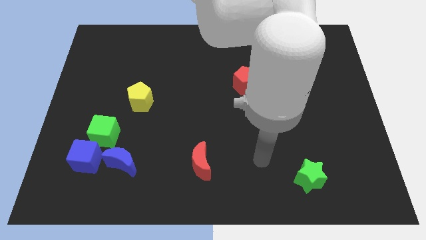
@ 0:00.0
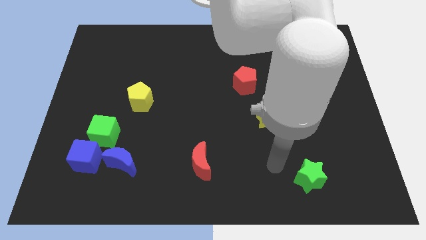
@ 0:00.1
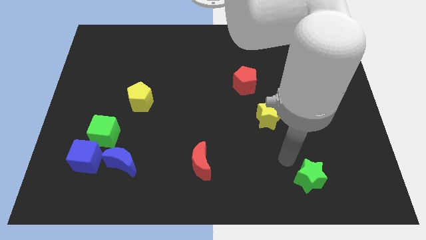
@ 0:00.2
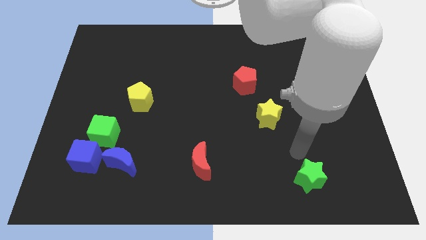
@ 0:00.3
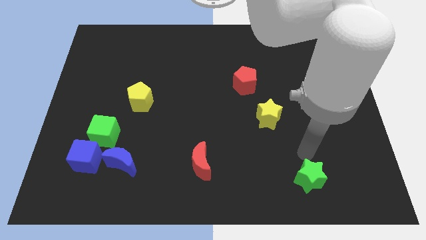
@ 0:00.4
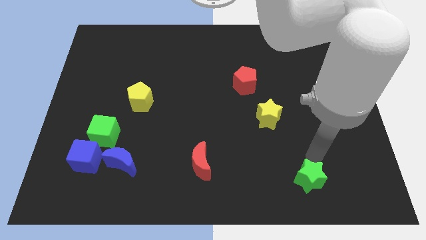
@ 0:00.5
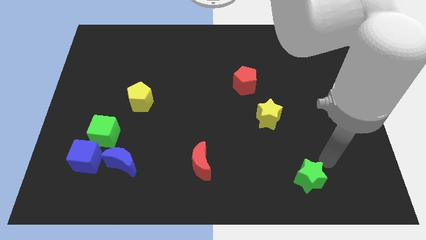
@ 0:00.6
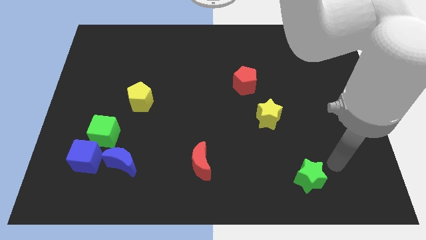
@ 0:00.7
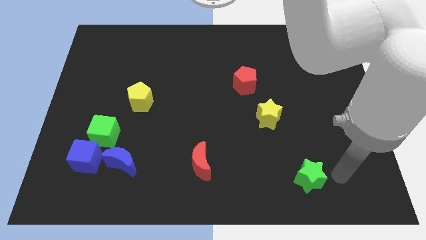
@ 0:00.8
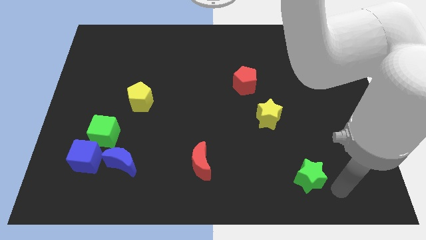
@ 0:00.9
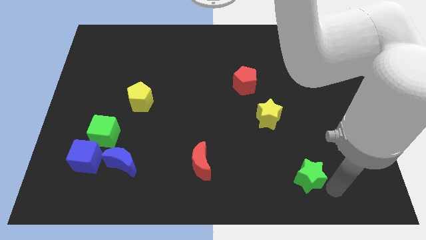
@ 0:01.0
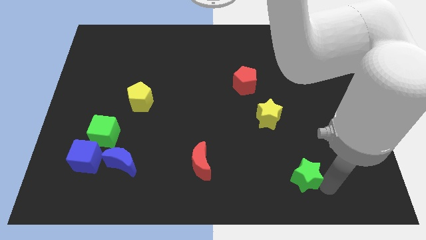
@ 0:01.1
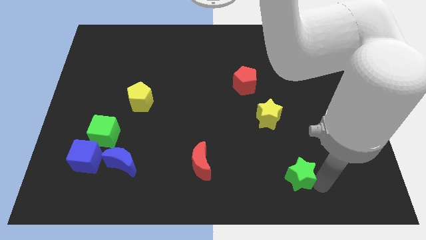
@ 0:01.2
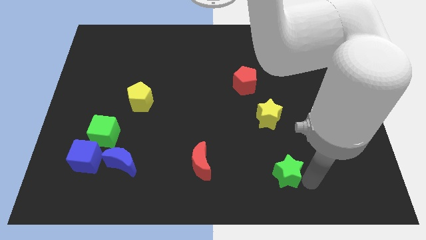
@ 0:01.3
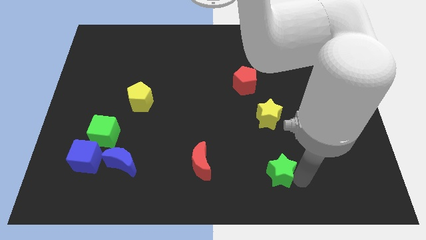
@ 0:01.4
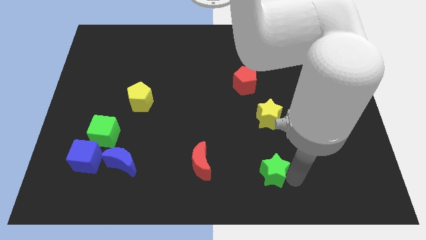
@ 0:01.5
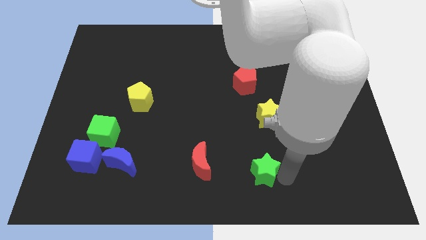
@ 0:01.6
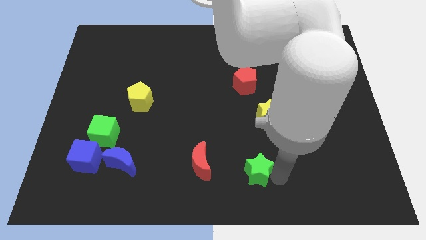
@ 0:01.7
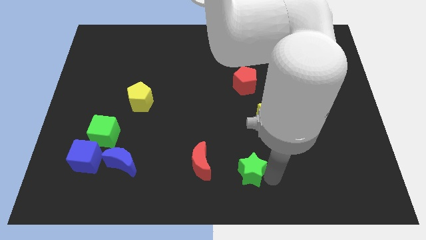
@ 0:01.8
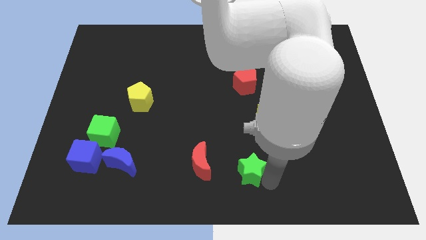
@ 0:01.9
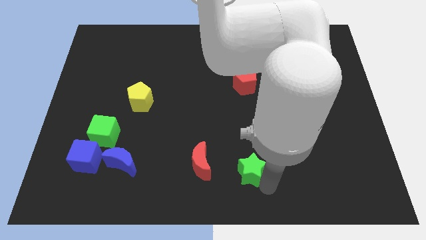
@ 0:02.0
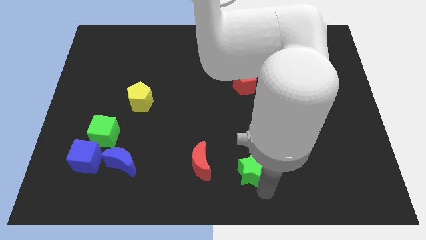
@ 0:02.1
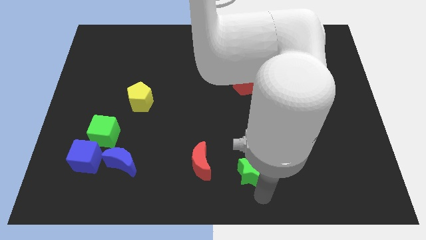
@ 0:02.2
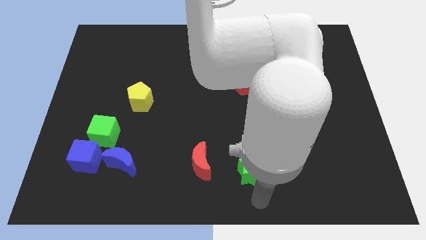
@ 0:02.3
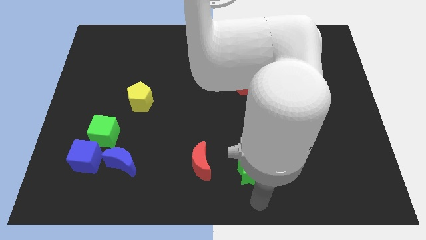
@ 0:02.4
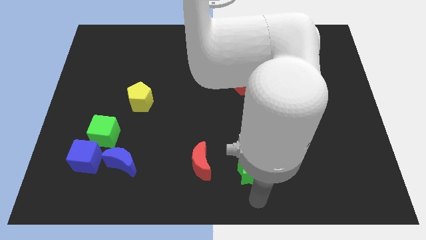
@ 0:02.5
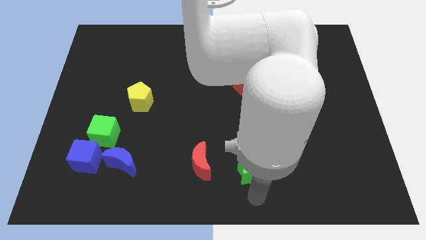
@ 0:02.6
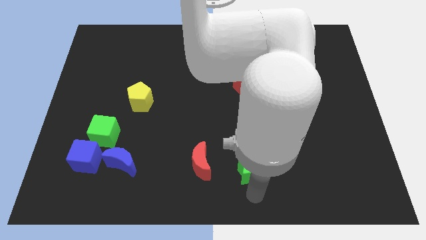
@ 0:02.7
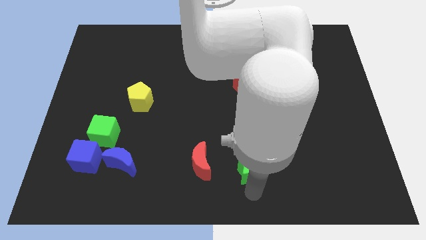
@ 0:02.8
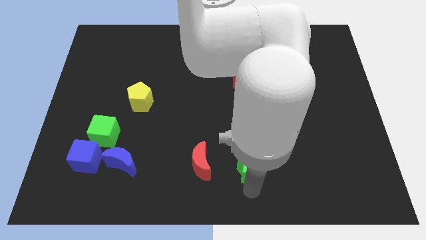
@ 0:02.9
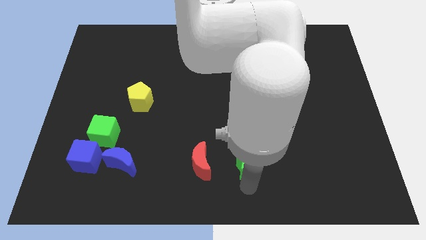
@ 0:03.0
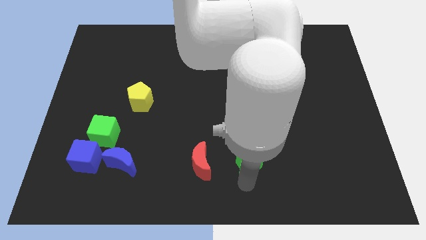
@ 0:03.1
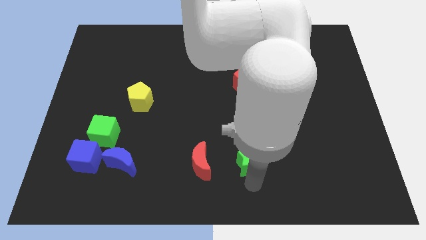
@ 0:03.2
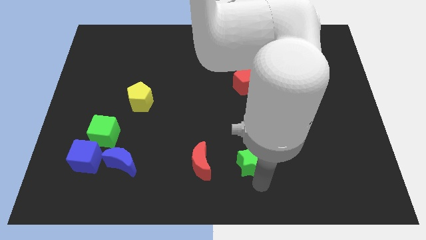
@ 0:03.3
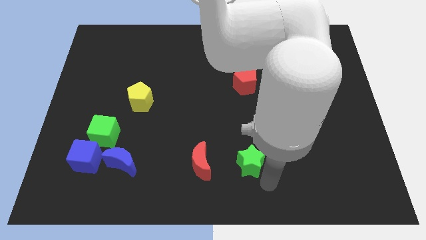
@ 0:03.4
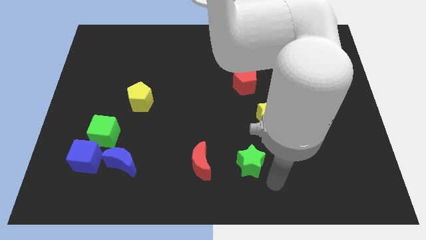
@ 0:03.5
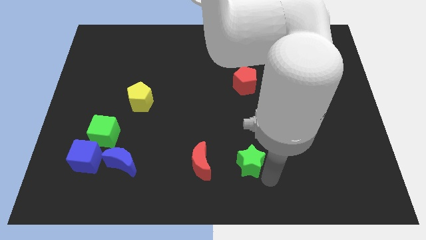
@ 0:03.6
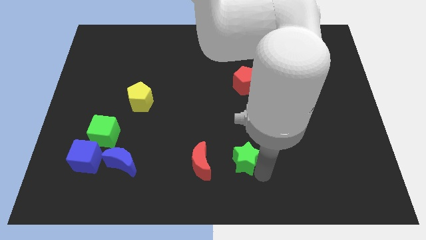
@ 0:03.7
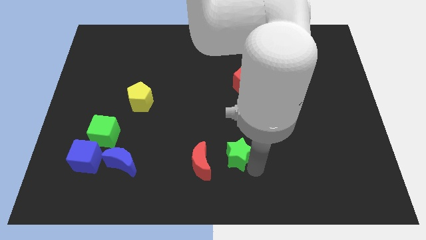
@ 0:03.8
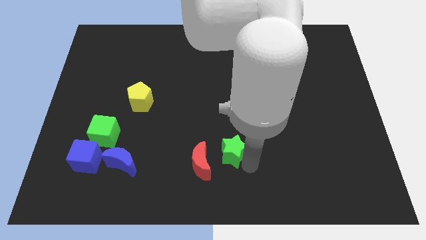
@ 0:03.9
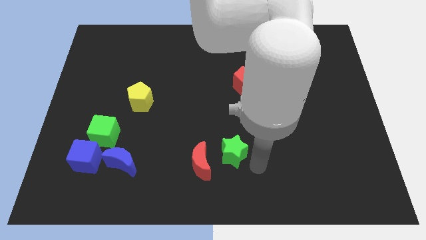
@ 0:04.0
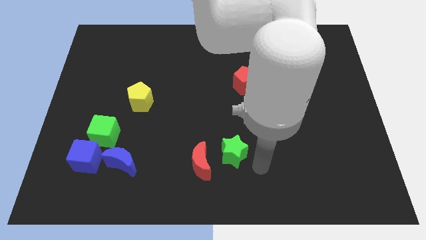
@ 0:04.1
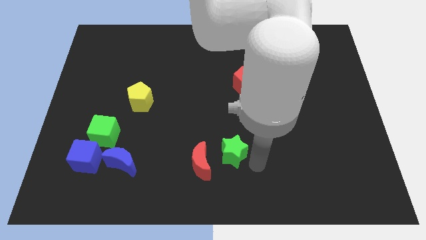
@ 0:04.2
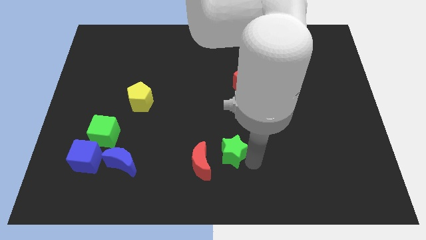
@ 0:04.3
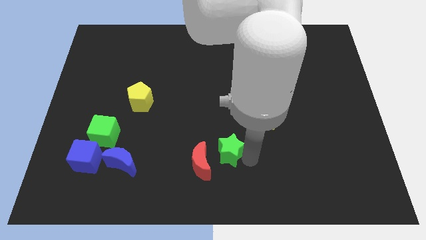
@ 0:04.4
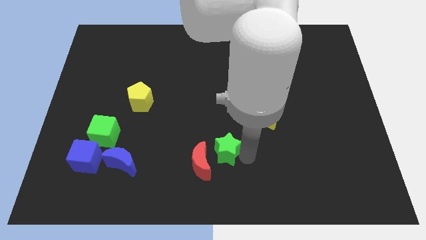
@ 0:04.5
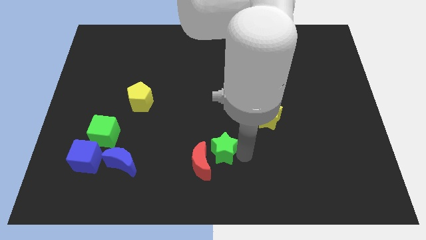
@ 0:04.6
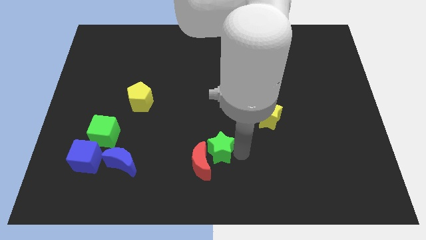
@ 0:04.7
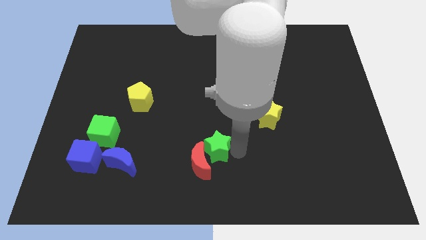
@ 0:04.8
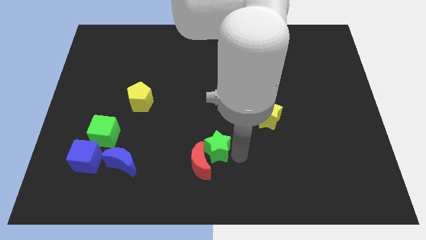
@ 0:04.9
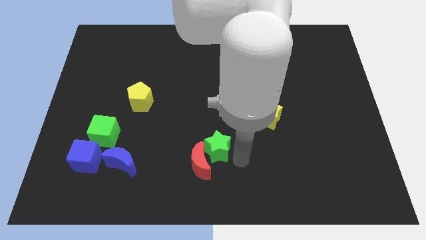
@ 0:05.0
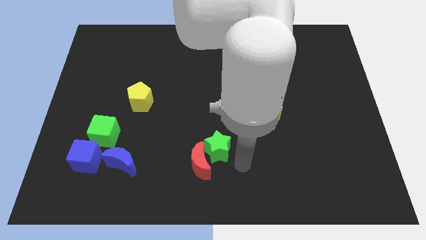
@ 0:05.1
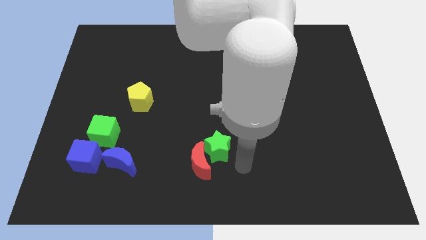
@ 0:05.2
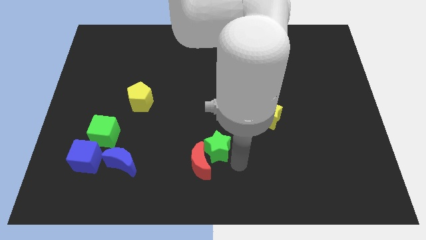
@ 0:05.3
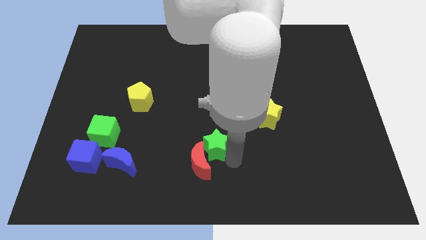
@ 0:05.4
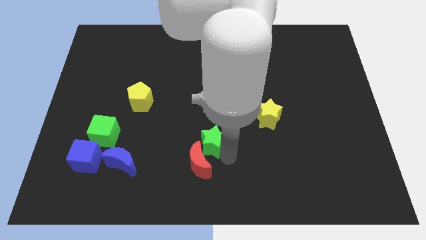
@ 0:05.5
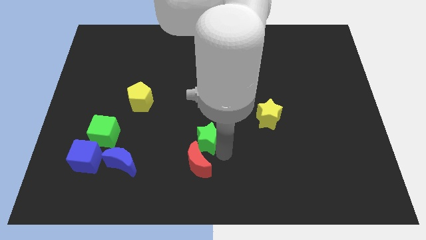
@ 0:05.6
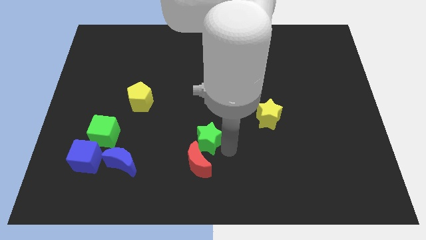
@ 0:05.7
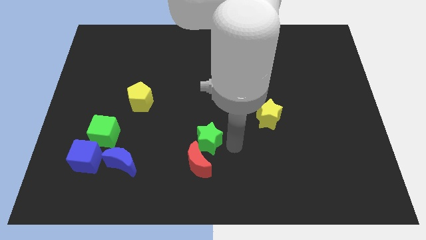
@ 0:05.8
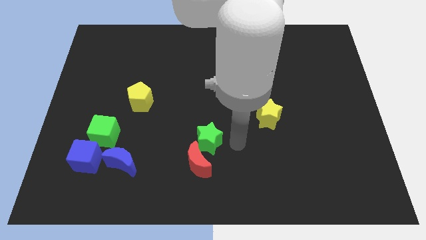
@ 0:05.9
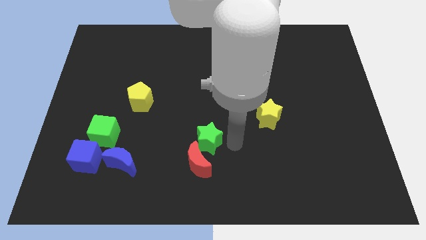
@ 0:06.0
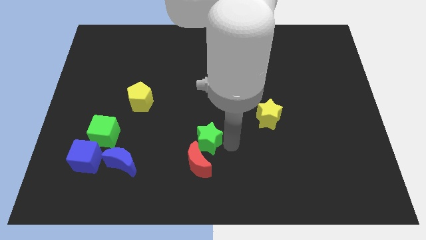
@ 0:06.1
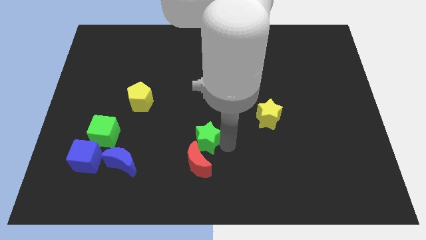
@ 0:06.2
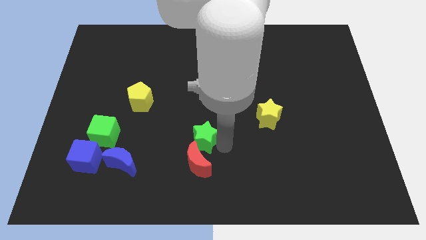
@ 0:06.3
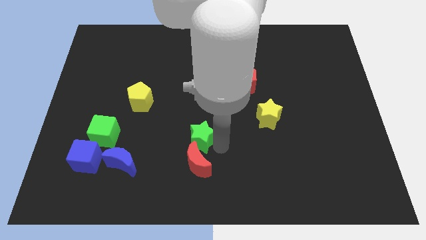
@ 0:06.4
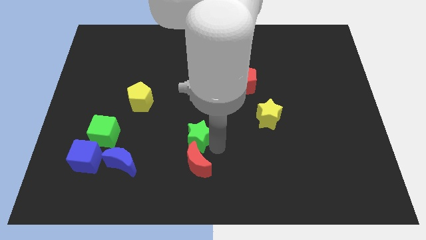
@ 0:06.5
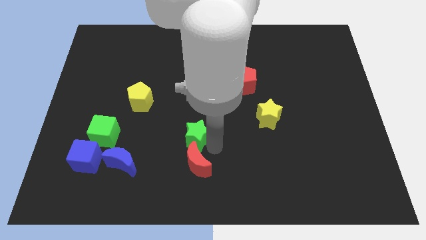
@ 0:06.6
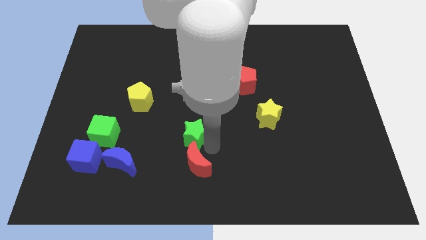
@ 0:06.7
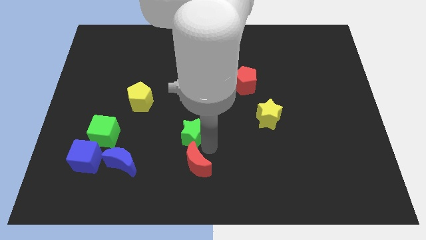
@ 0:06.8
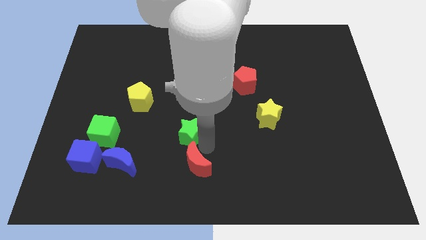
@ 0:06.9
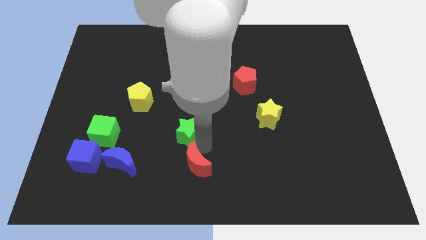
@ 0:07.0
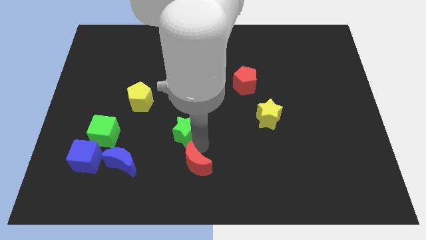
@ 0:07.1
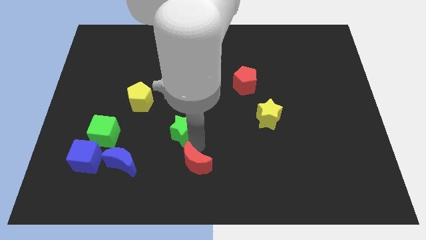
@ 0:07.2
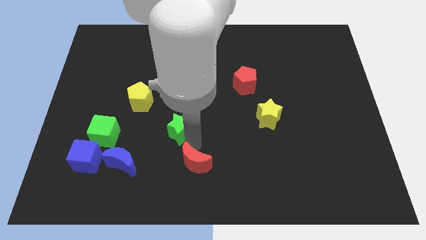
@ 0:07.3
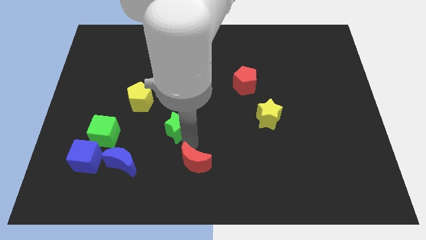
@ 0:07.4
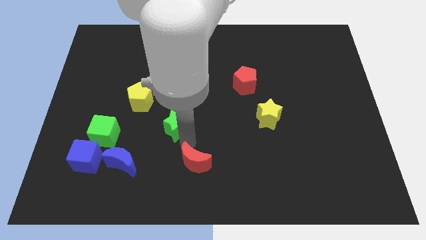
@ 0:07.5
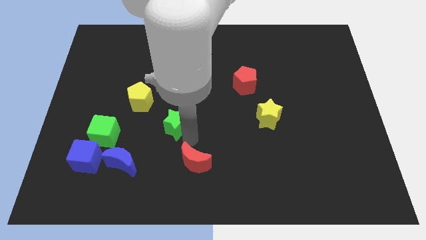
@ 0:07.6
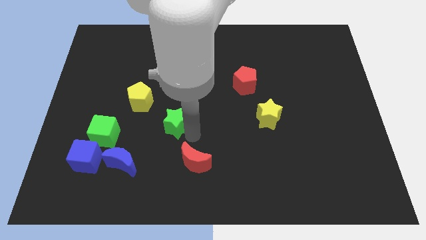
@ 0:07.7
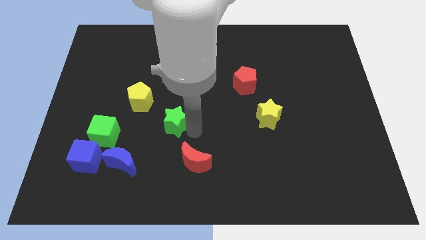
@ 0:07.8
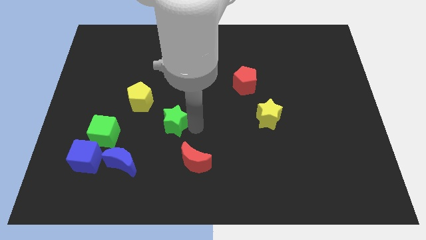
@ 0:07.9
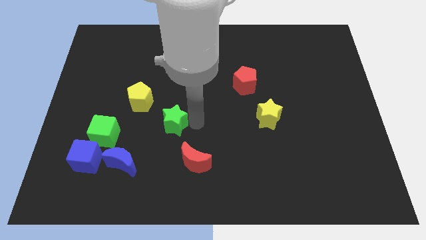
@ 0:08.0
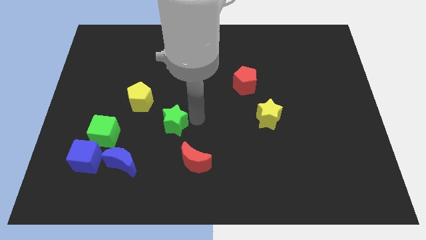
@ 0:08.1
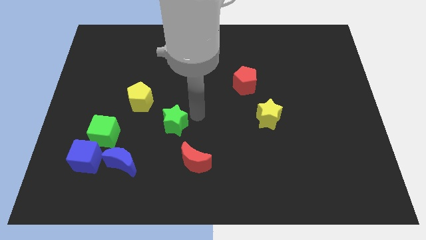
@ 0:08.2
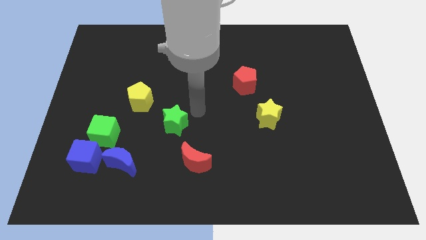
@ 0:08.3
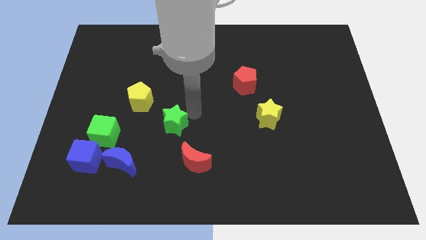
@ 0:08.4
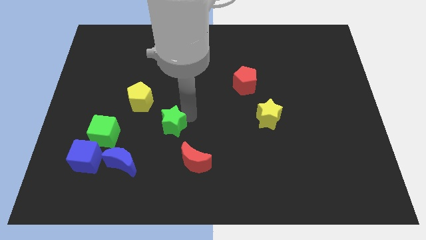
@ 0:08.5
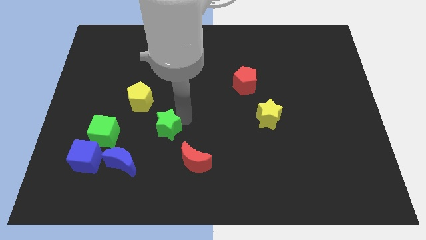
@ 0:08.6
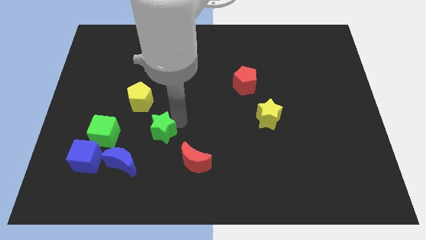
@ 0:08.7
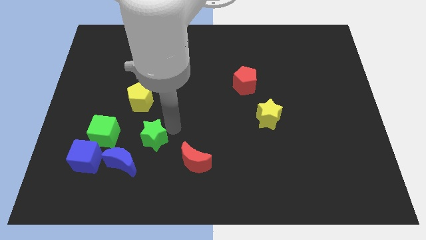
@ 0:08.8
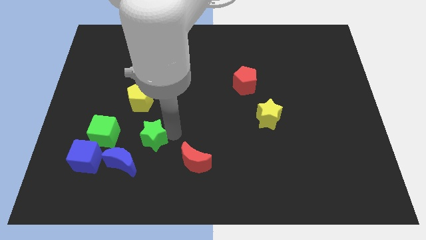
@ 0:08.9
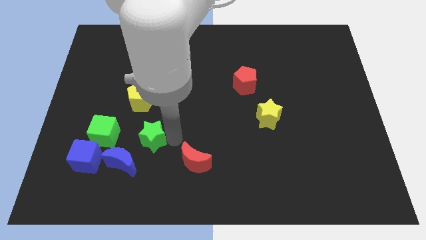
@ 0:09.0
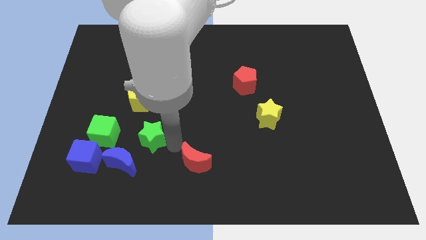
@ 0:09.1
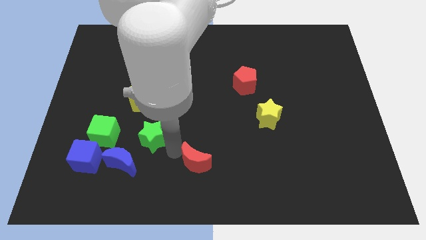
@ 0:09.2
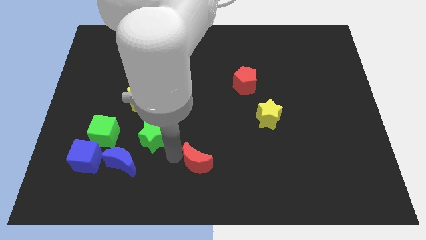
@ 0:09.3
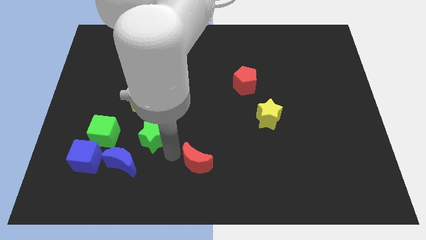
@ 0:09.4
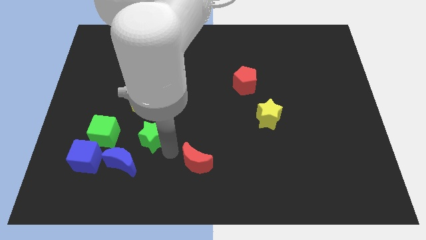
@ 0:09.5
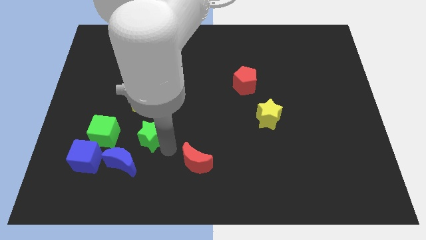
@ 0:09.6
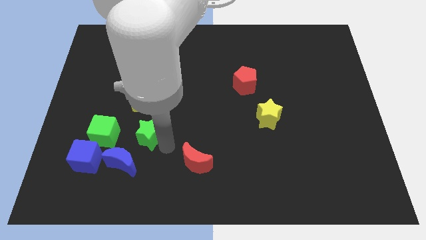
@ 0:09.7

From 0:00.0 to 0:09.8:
push the green star above the blue moon
